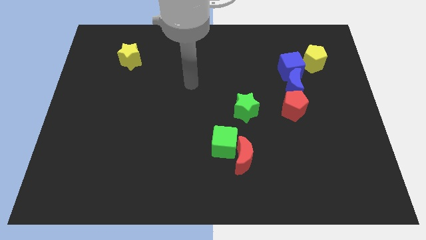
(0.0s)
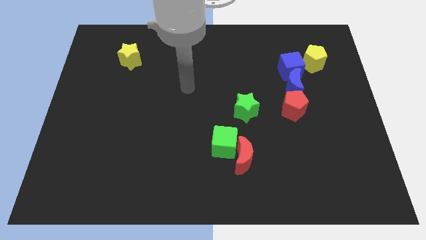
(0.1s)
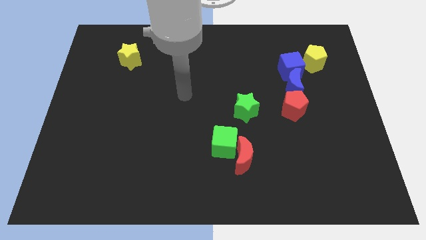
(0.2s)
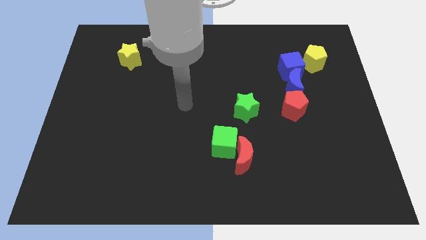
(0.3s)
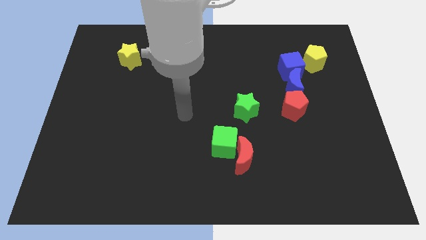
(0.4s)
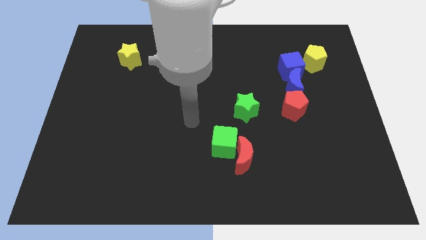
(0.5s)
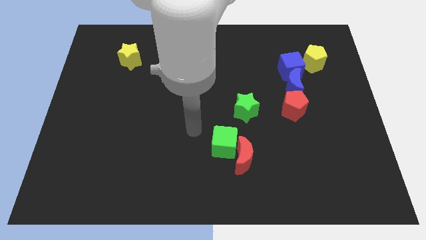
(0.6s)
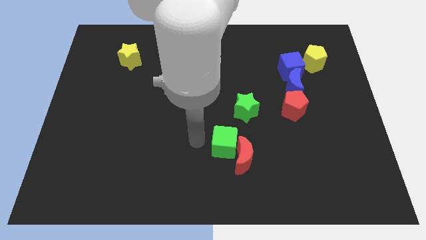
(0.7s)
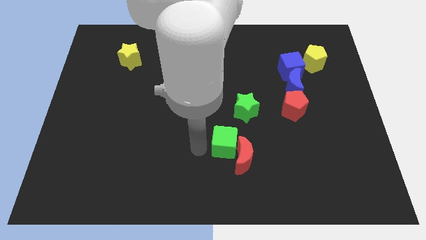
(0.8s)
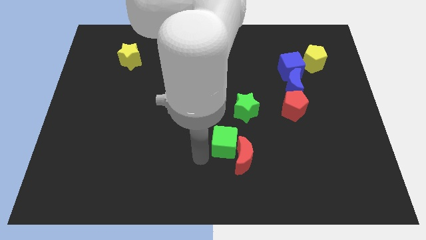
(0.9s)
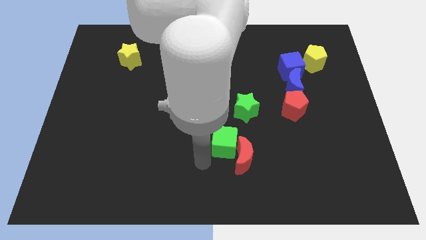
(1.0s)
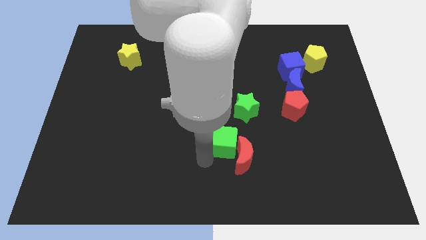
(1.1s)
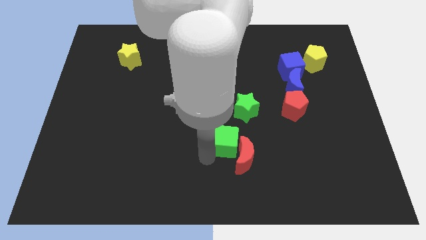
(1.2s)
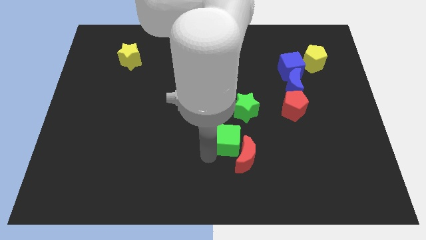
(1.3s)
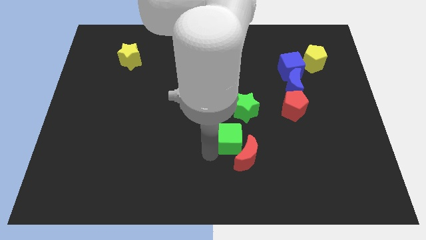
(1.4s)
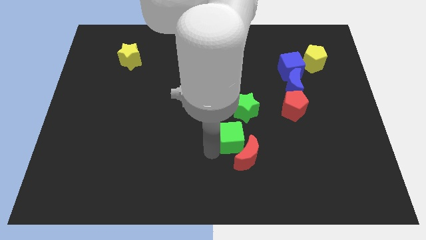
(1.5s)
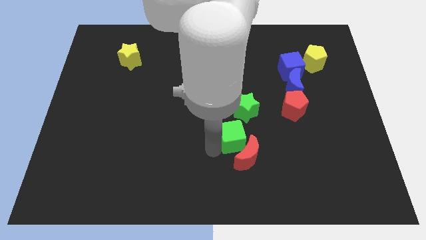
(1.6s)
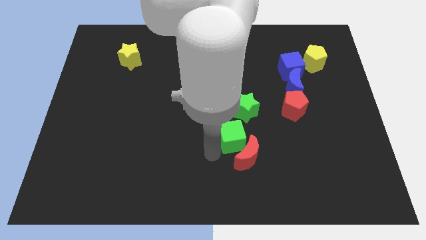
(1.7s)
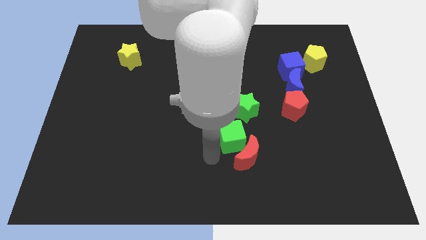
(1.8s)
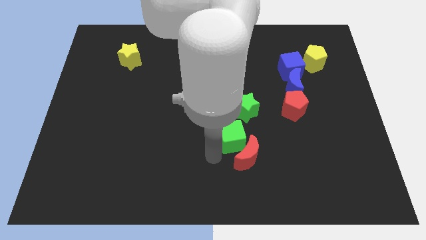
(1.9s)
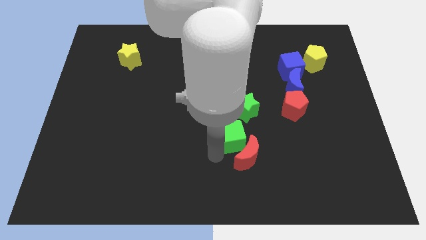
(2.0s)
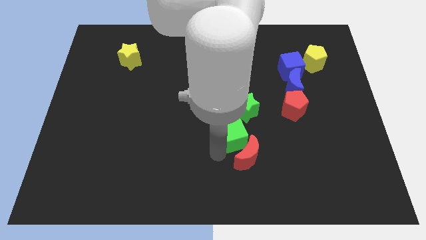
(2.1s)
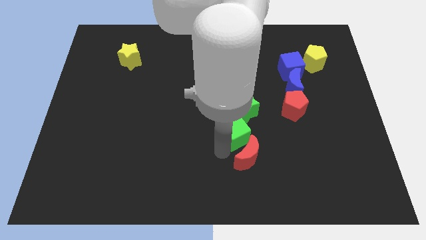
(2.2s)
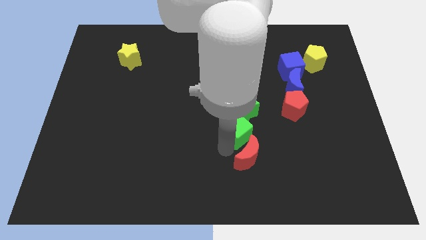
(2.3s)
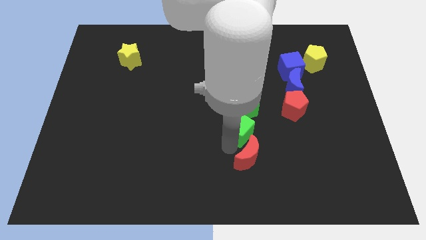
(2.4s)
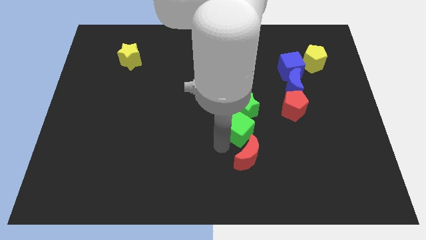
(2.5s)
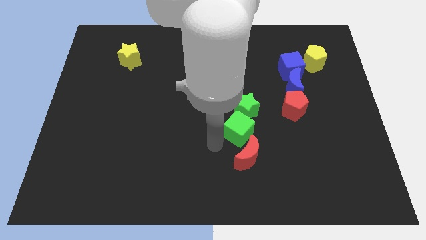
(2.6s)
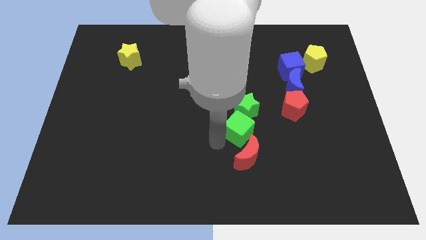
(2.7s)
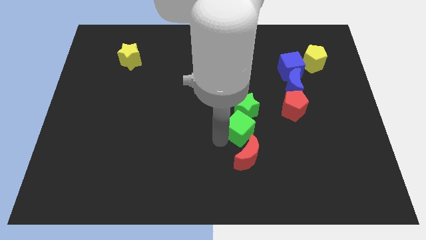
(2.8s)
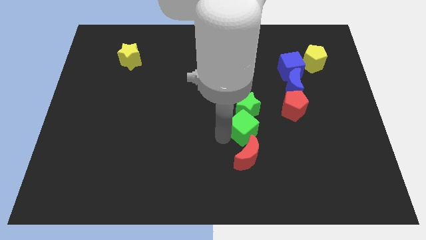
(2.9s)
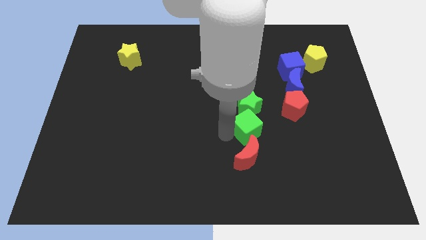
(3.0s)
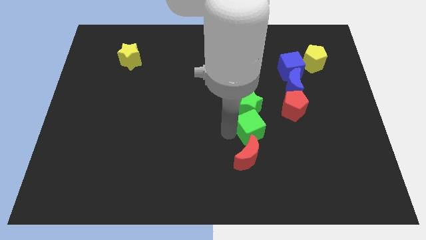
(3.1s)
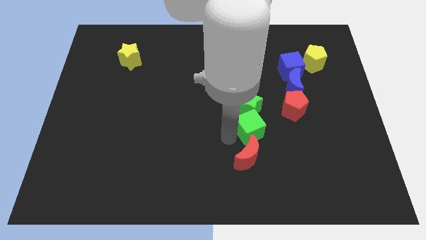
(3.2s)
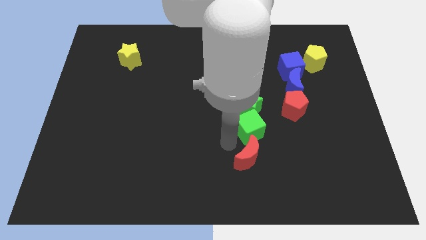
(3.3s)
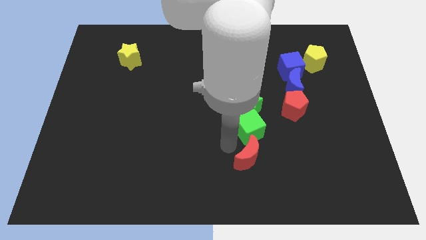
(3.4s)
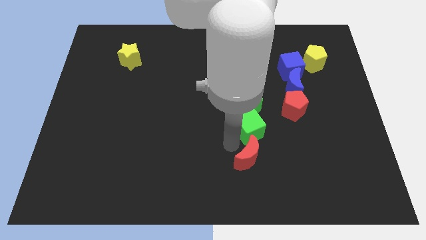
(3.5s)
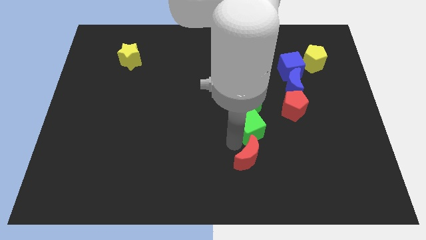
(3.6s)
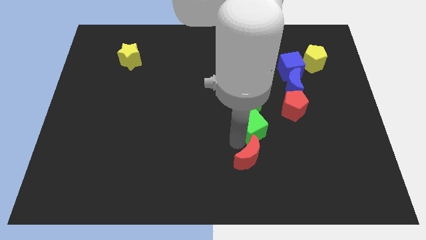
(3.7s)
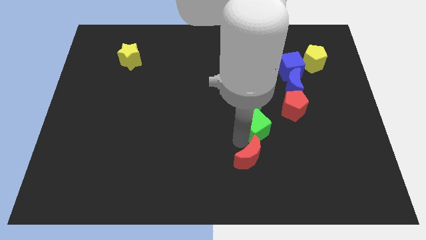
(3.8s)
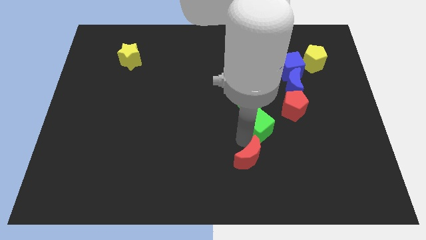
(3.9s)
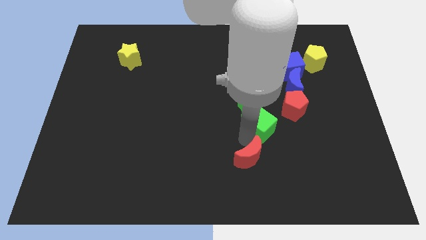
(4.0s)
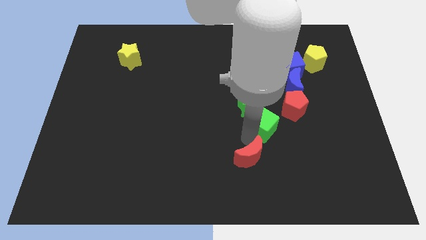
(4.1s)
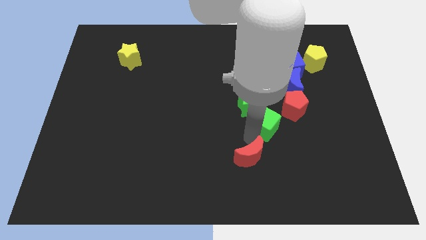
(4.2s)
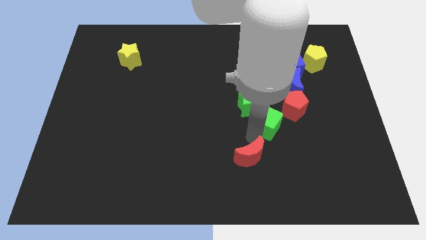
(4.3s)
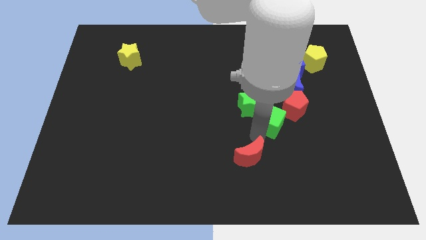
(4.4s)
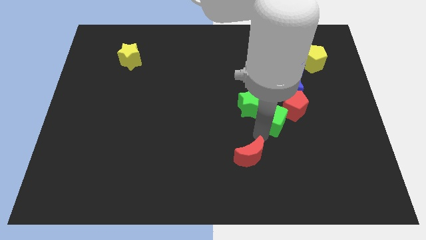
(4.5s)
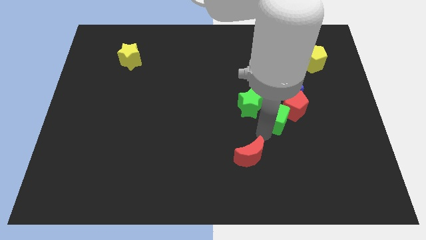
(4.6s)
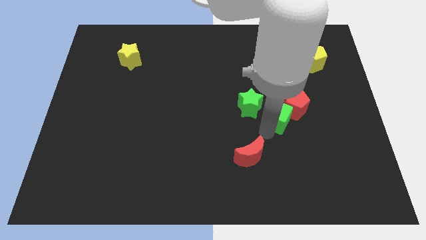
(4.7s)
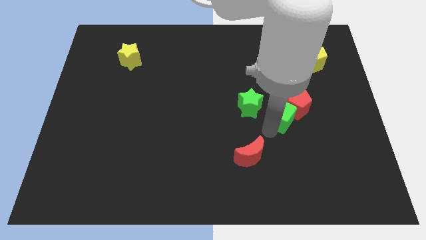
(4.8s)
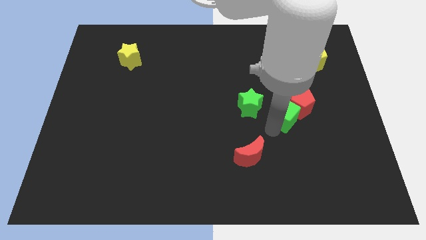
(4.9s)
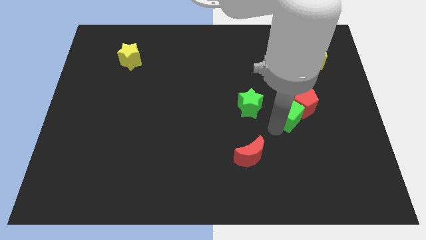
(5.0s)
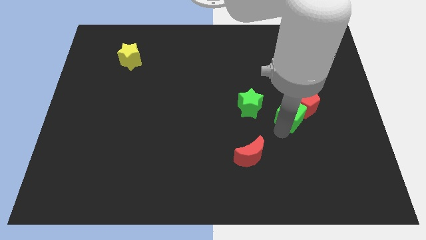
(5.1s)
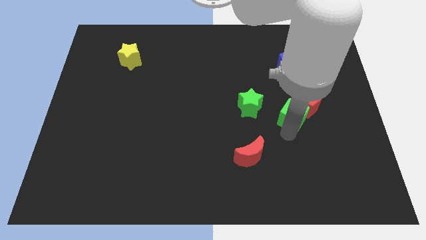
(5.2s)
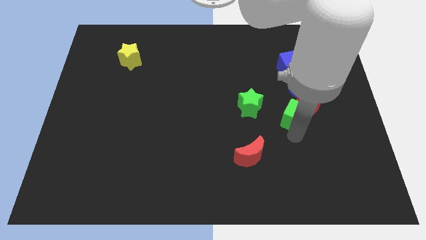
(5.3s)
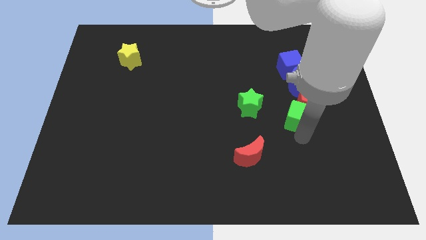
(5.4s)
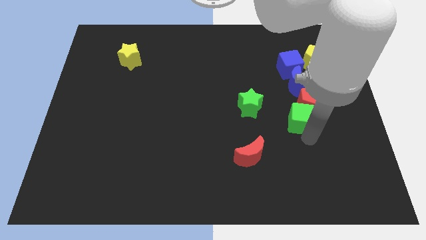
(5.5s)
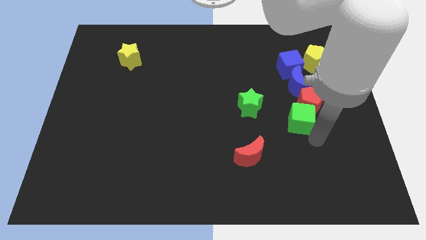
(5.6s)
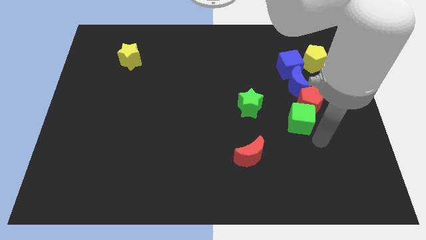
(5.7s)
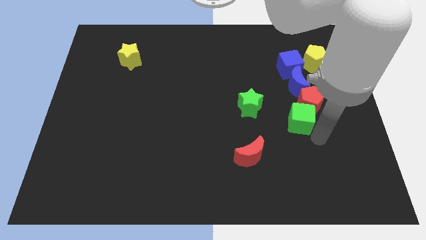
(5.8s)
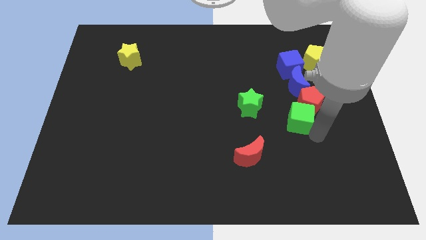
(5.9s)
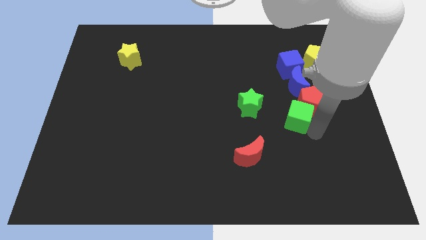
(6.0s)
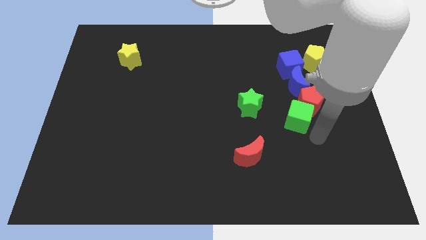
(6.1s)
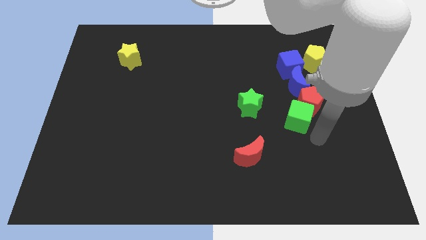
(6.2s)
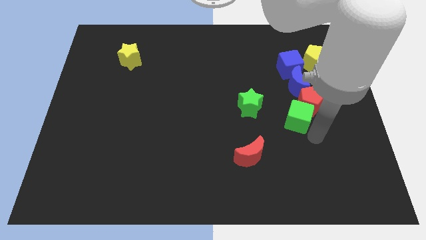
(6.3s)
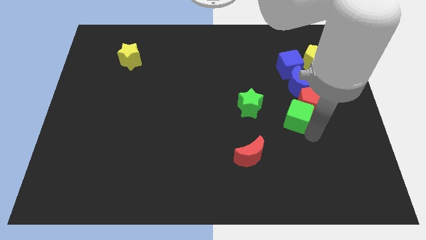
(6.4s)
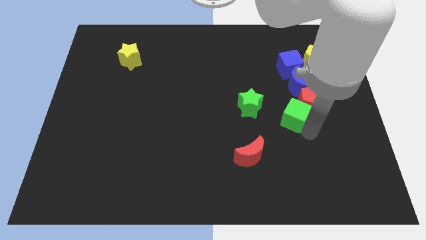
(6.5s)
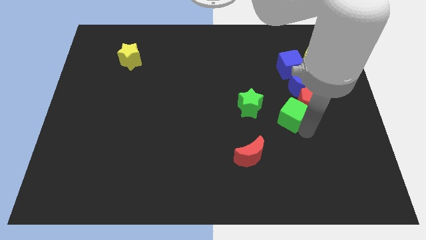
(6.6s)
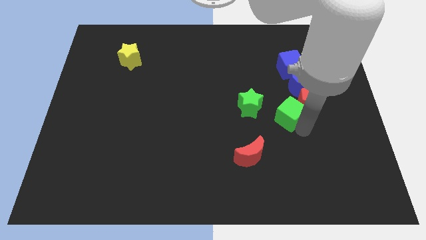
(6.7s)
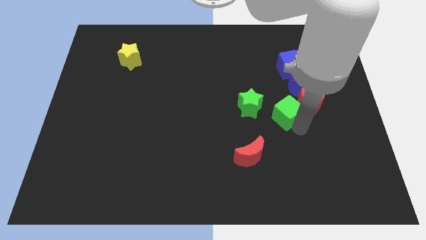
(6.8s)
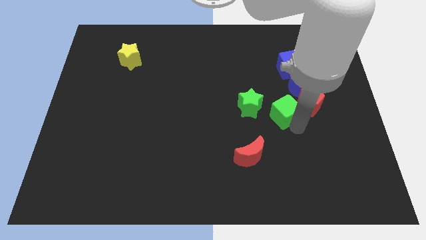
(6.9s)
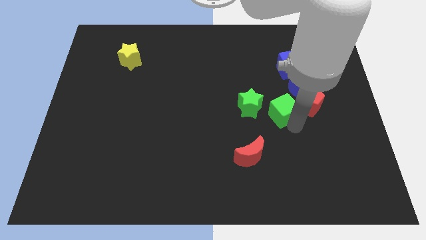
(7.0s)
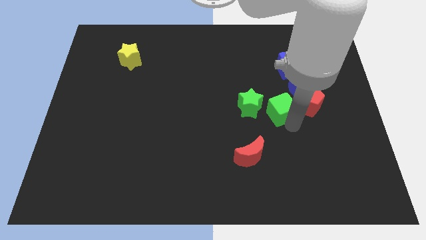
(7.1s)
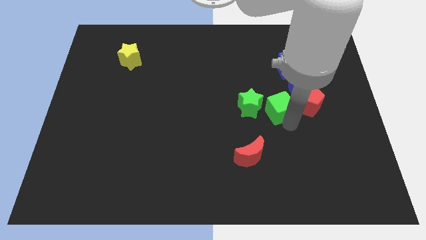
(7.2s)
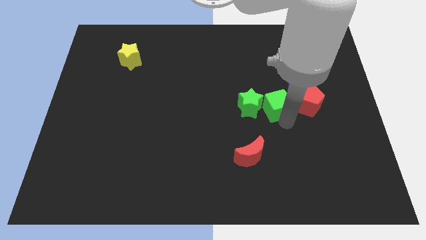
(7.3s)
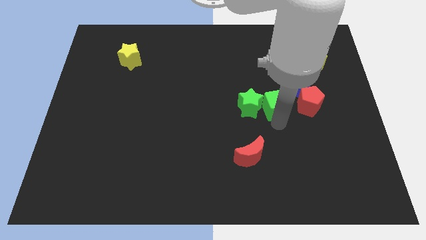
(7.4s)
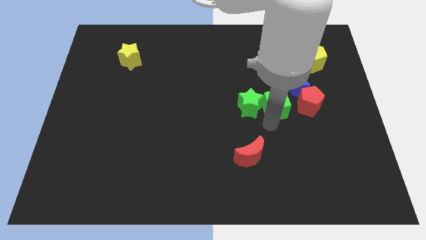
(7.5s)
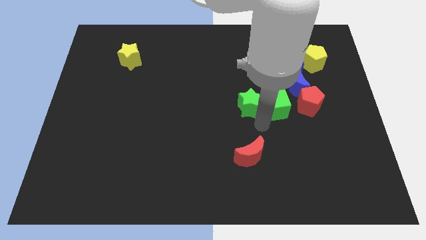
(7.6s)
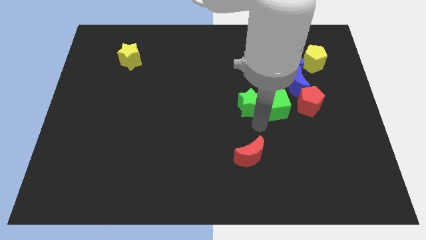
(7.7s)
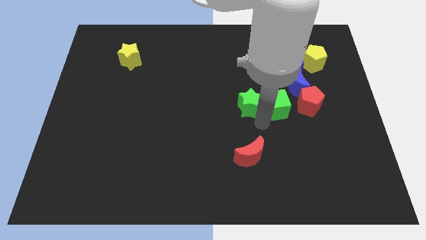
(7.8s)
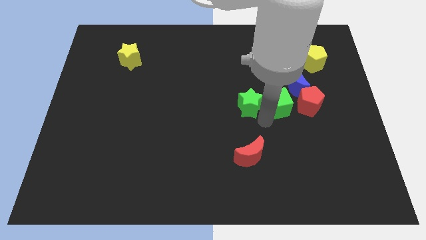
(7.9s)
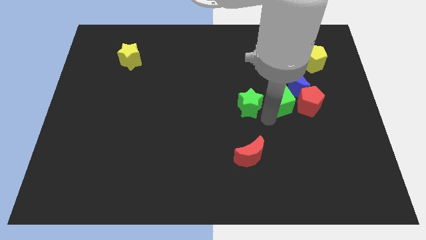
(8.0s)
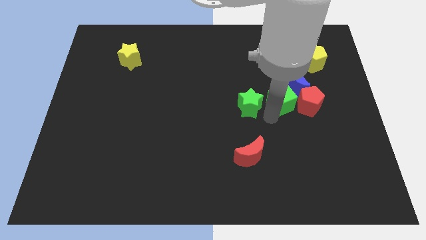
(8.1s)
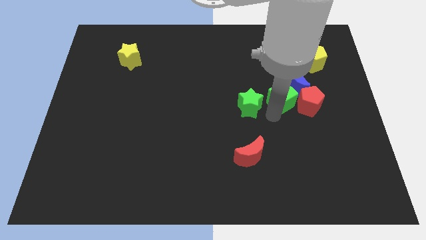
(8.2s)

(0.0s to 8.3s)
slide the green cube next to the blue moon
